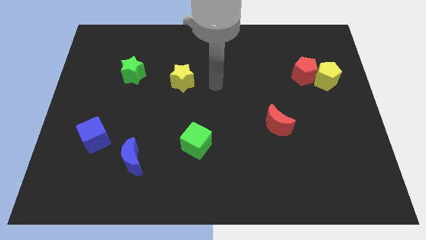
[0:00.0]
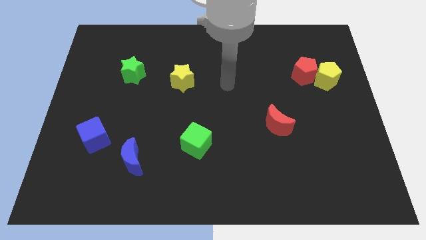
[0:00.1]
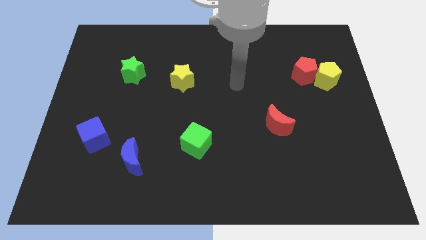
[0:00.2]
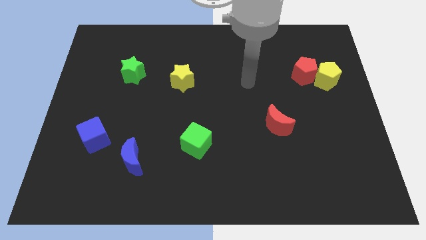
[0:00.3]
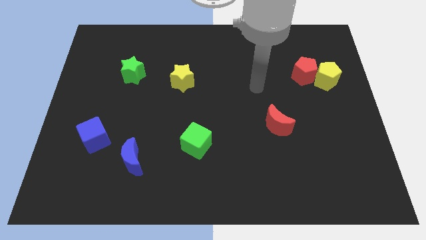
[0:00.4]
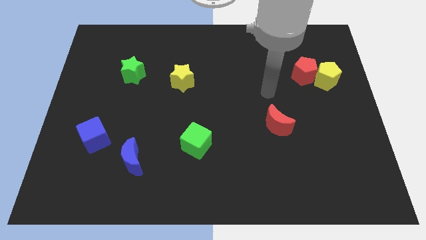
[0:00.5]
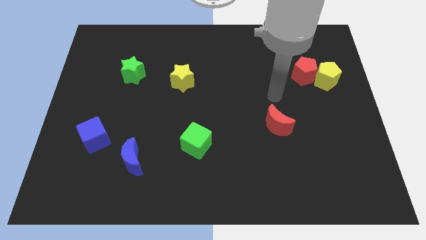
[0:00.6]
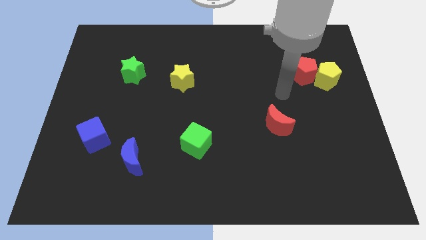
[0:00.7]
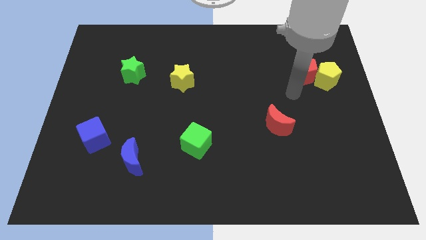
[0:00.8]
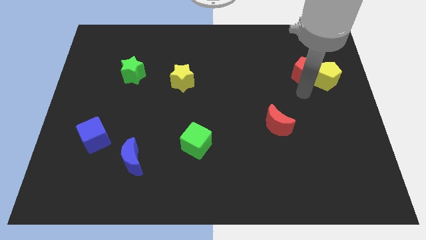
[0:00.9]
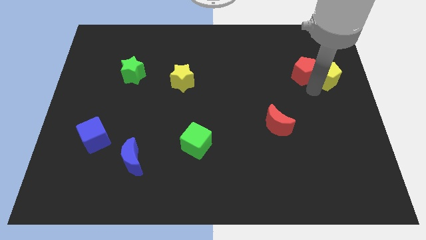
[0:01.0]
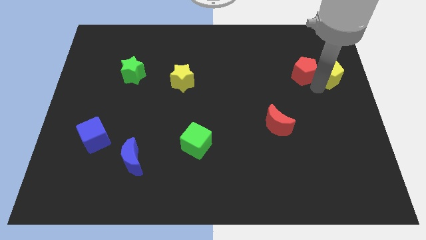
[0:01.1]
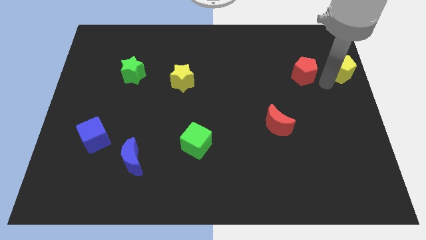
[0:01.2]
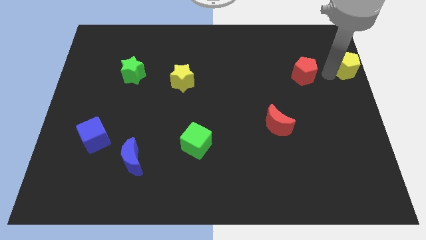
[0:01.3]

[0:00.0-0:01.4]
pull the red pentagon apart from the yellow pentagon

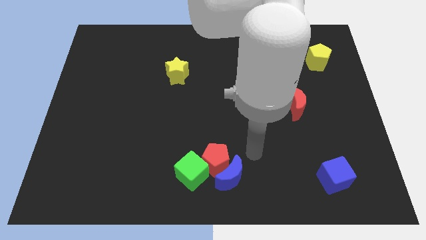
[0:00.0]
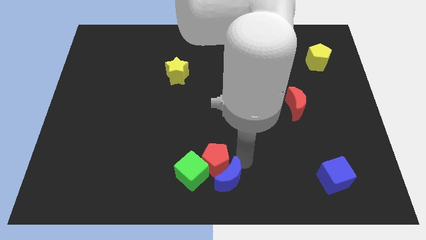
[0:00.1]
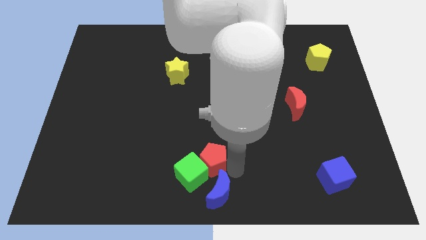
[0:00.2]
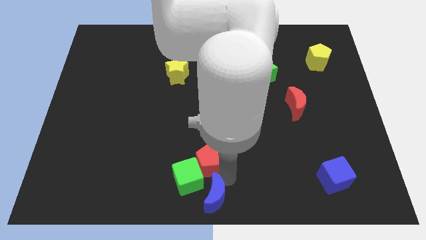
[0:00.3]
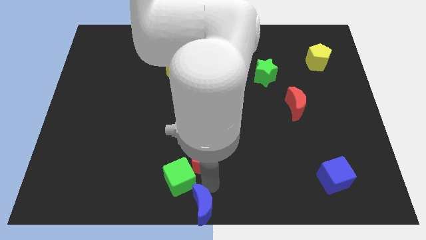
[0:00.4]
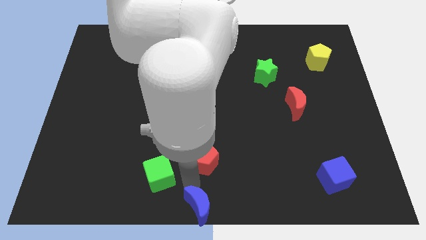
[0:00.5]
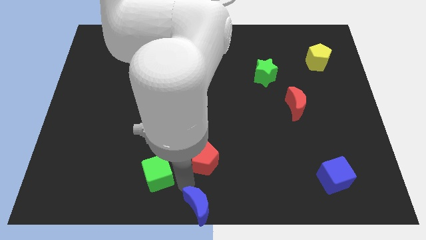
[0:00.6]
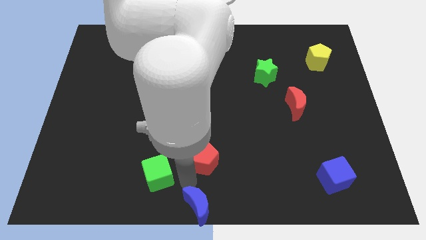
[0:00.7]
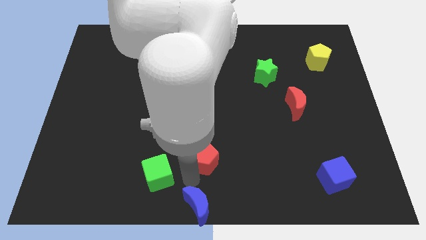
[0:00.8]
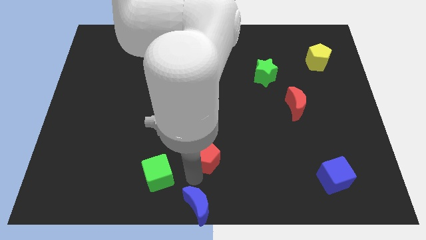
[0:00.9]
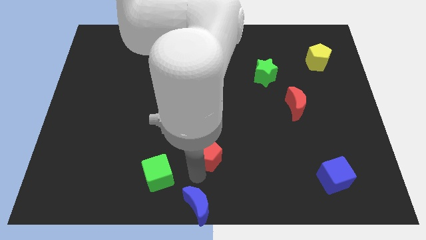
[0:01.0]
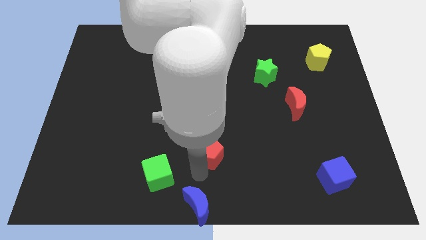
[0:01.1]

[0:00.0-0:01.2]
pull the red pentagon apart from the blue moon and green cube

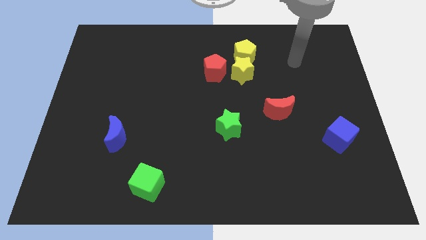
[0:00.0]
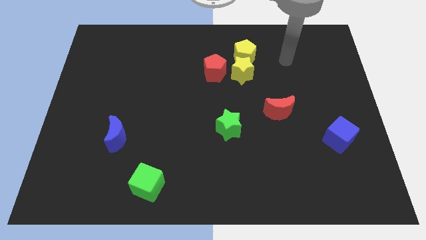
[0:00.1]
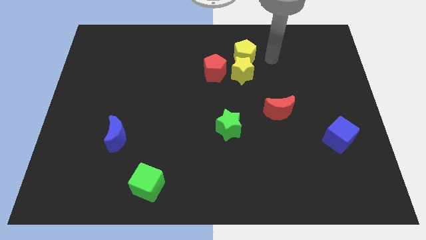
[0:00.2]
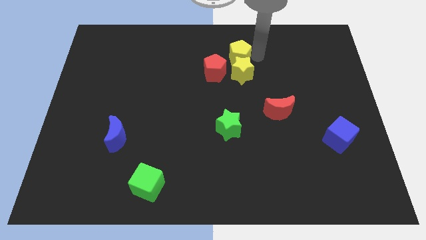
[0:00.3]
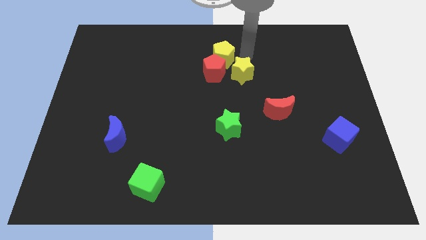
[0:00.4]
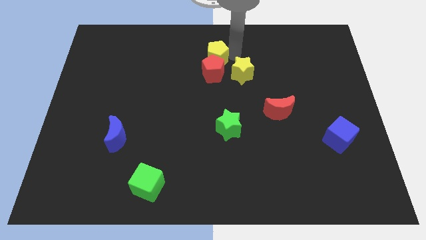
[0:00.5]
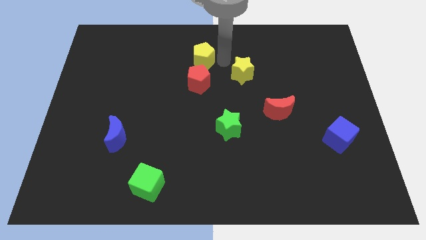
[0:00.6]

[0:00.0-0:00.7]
move the yellow star away from the yellow pentagon and red pentagon

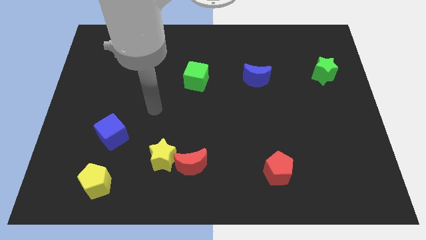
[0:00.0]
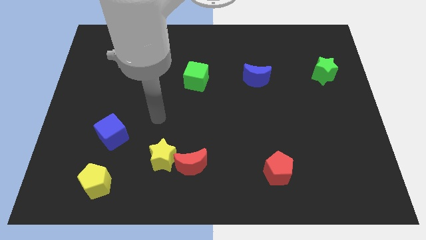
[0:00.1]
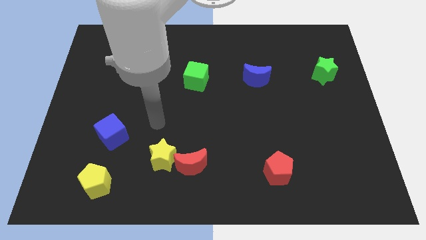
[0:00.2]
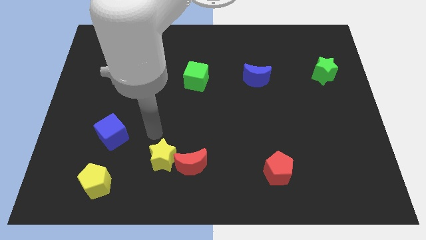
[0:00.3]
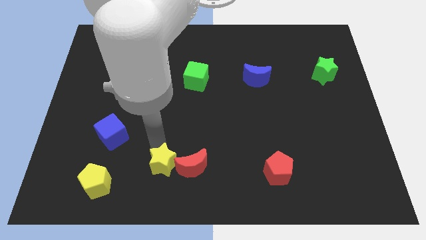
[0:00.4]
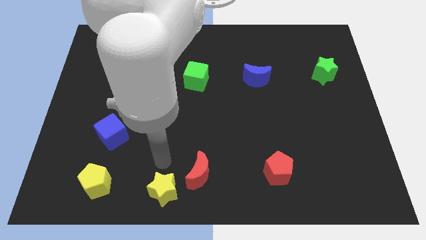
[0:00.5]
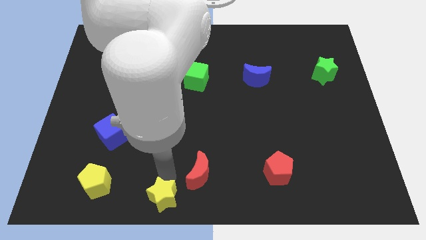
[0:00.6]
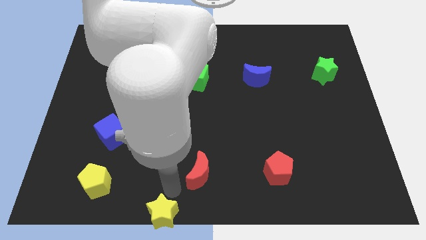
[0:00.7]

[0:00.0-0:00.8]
move the red moon away from the yellow star

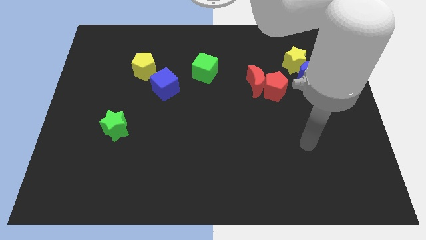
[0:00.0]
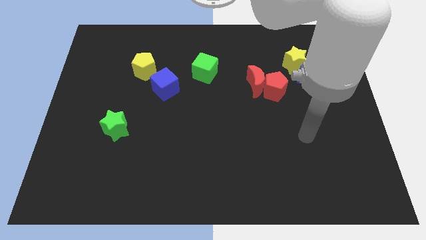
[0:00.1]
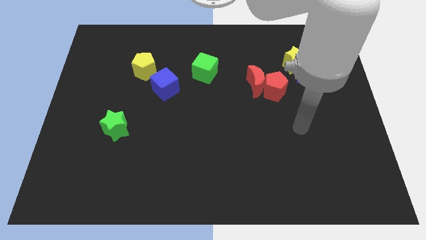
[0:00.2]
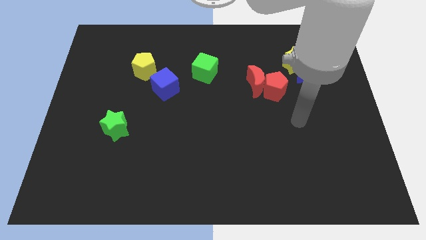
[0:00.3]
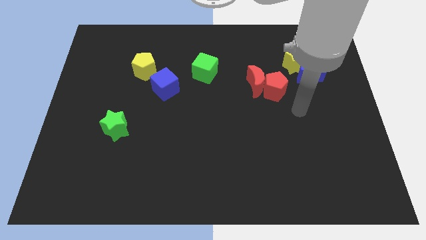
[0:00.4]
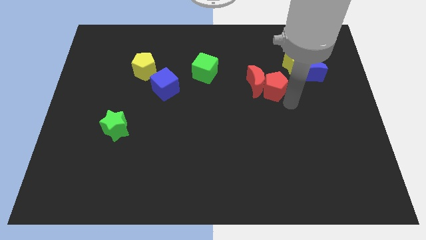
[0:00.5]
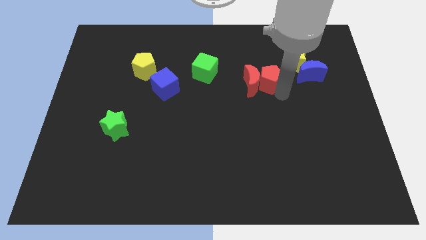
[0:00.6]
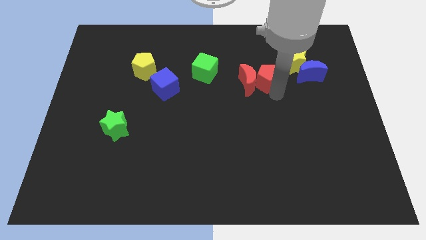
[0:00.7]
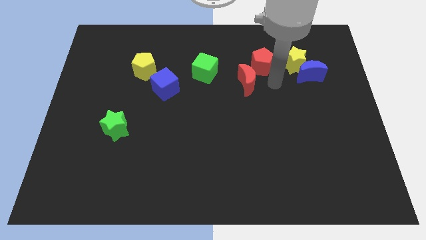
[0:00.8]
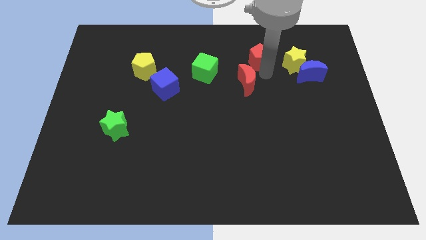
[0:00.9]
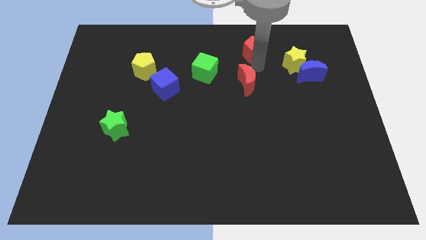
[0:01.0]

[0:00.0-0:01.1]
pull the red moon apart from the red pentagon

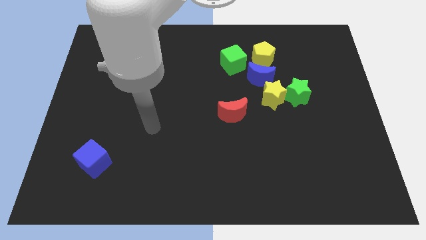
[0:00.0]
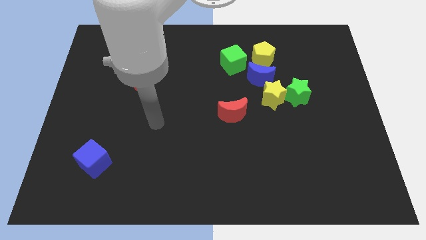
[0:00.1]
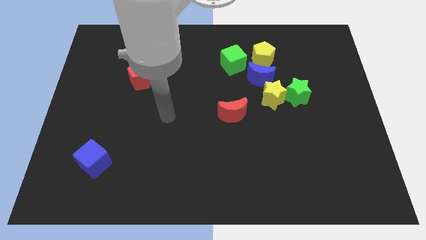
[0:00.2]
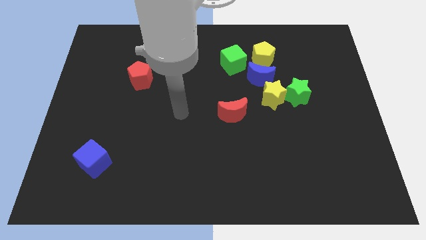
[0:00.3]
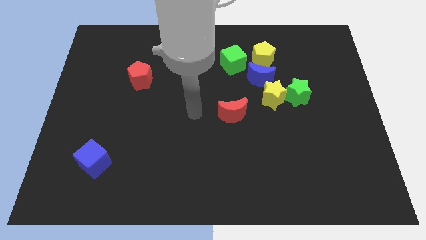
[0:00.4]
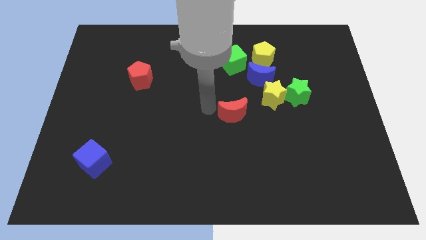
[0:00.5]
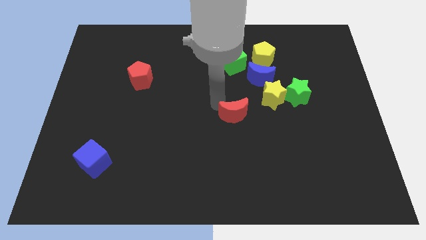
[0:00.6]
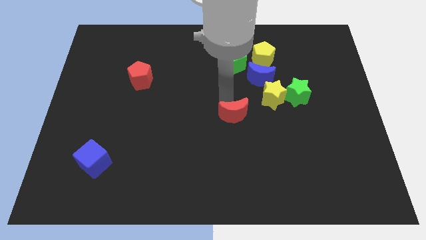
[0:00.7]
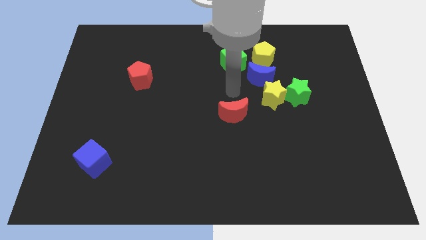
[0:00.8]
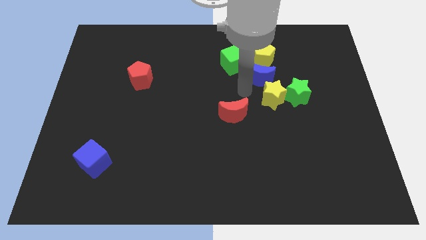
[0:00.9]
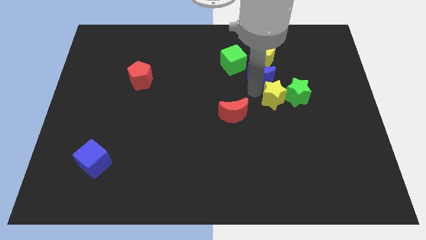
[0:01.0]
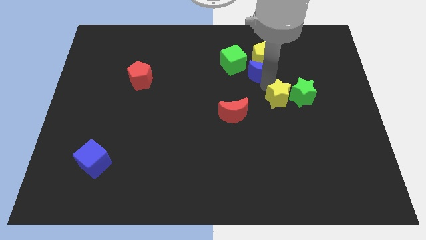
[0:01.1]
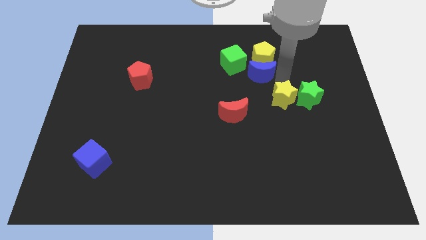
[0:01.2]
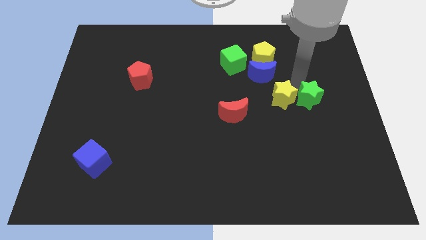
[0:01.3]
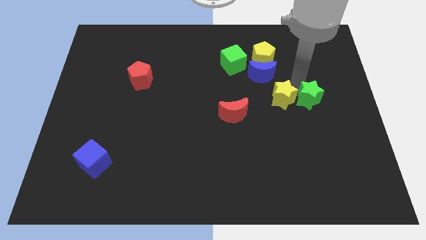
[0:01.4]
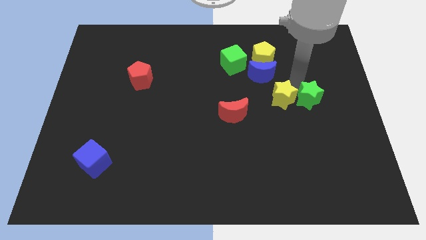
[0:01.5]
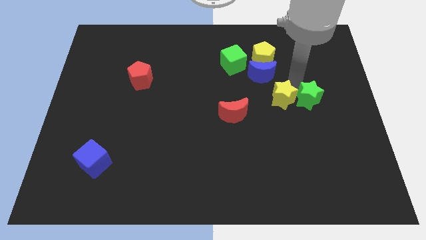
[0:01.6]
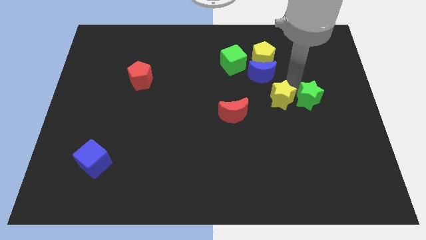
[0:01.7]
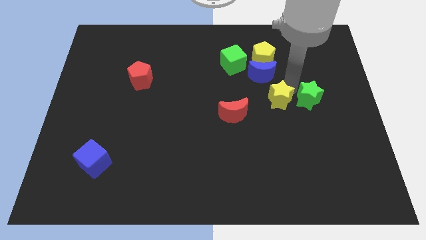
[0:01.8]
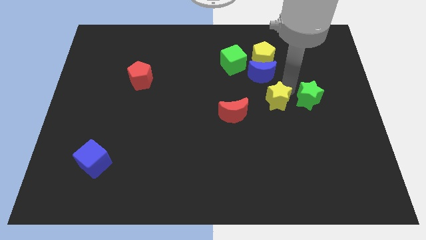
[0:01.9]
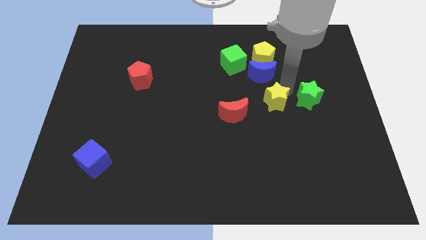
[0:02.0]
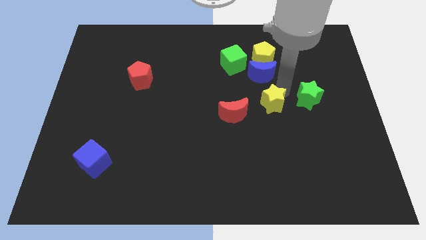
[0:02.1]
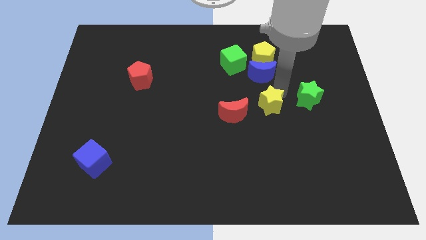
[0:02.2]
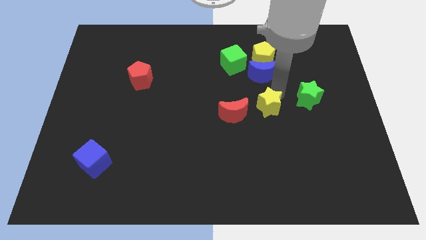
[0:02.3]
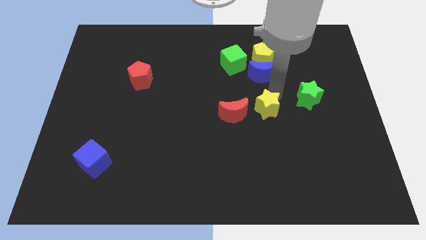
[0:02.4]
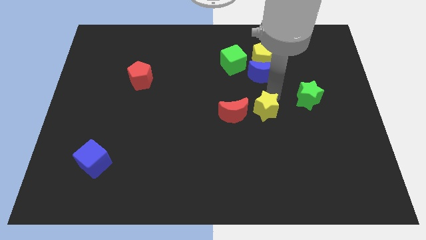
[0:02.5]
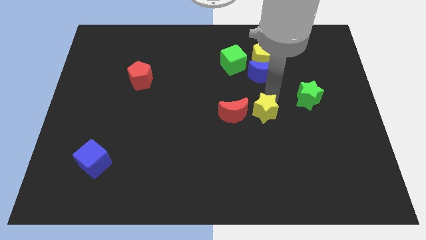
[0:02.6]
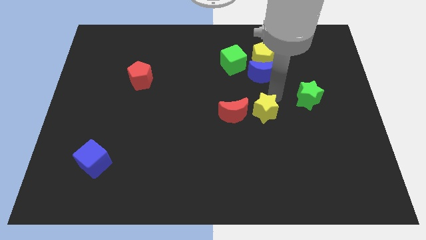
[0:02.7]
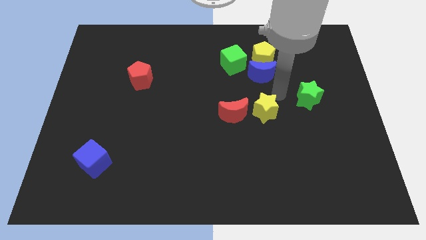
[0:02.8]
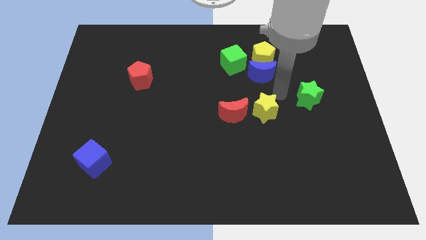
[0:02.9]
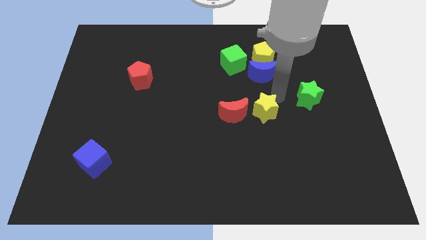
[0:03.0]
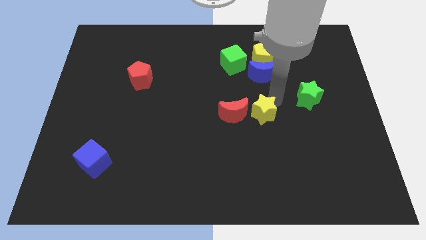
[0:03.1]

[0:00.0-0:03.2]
separate the yellow star from the green star and blue moon

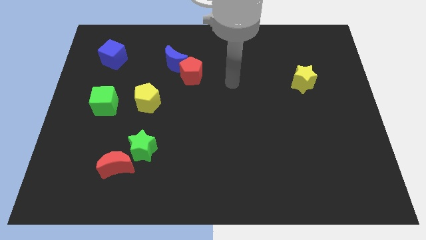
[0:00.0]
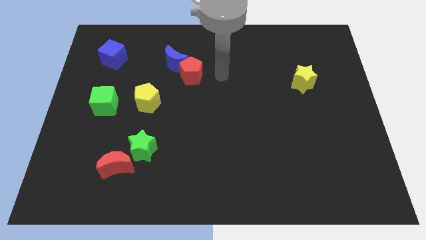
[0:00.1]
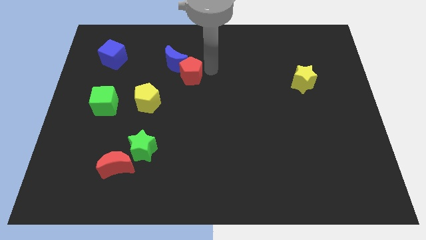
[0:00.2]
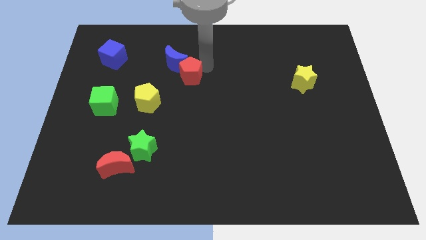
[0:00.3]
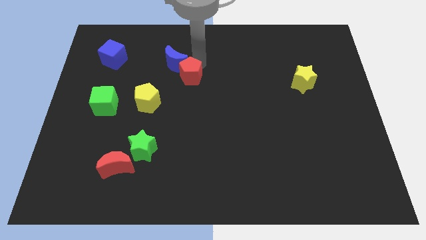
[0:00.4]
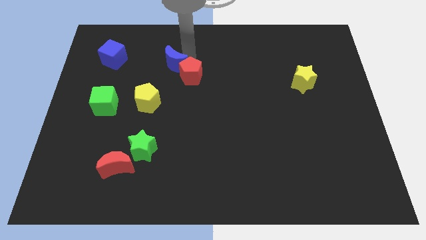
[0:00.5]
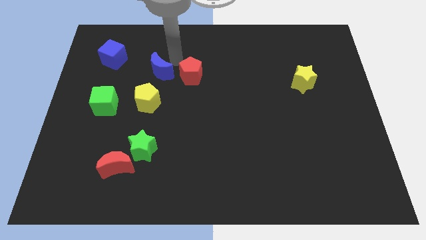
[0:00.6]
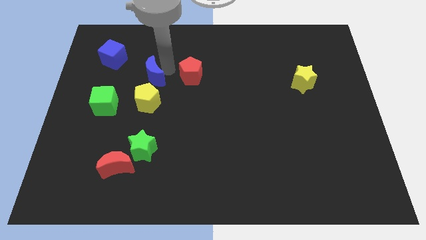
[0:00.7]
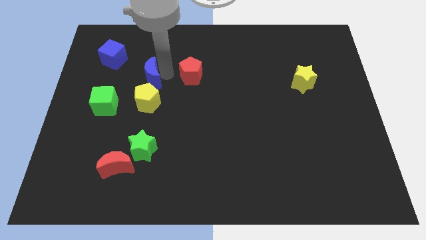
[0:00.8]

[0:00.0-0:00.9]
move the red pentagon away from the blue moon
